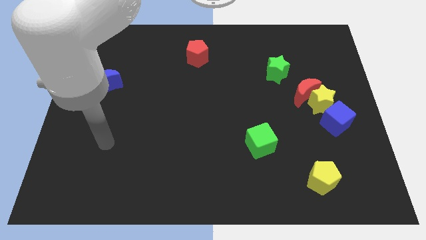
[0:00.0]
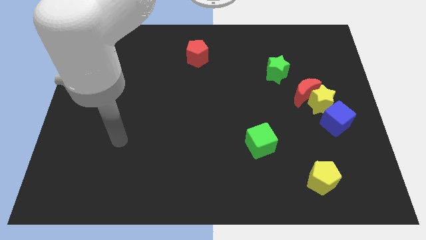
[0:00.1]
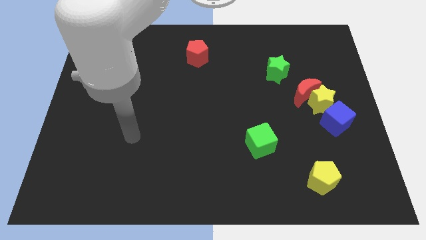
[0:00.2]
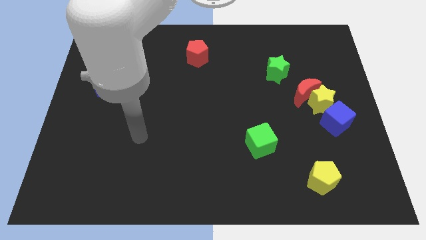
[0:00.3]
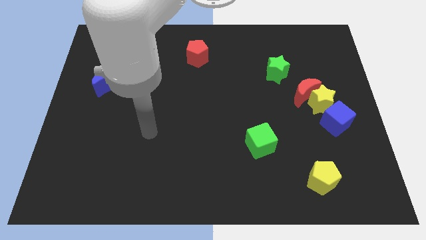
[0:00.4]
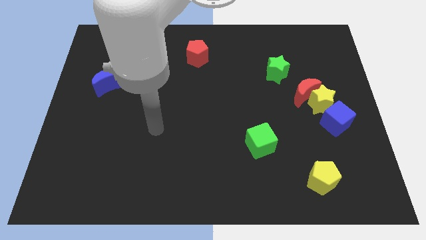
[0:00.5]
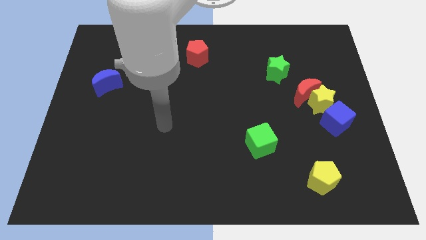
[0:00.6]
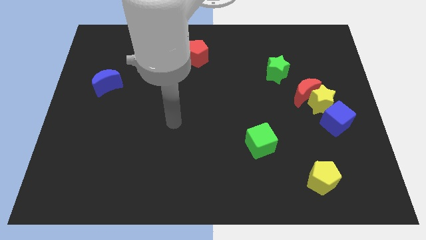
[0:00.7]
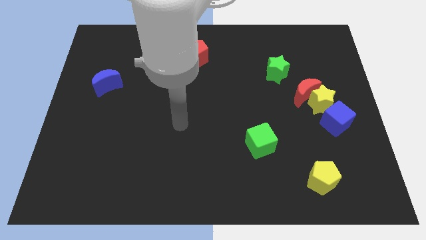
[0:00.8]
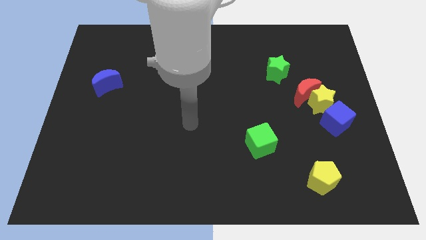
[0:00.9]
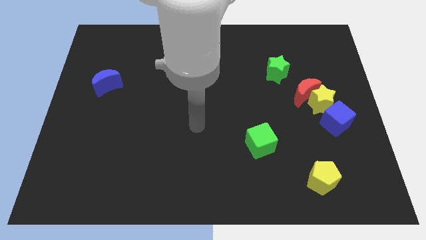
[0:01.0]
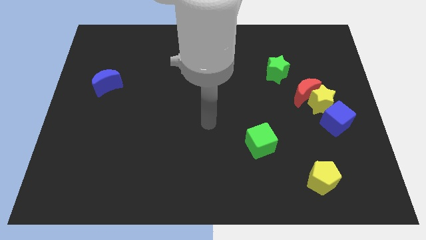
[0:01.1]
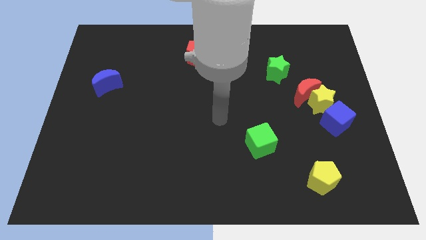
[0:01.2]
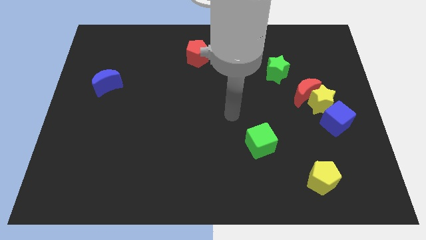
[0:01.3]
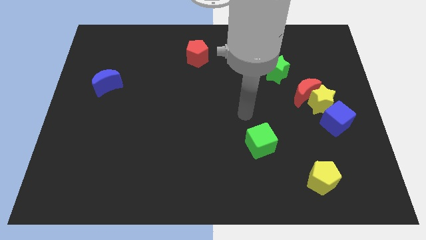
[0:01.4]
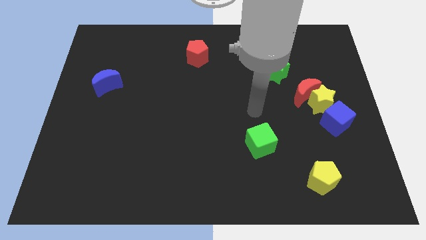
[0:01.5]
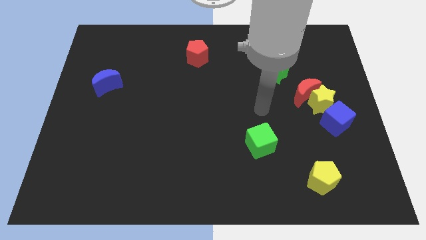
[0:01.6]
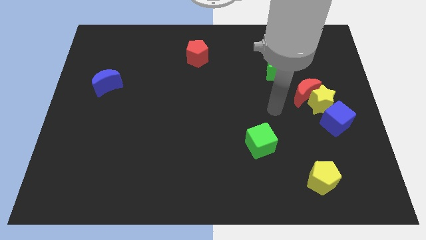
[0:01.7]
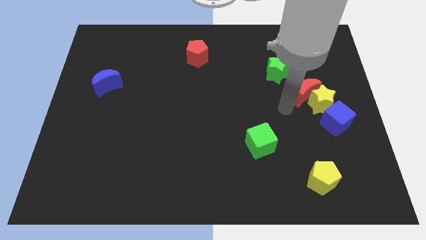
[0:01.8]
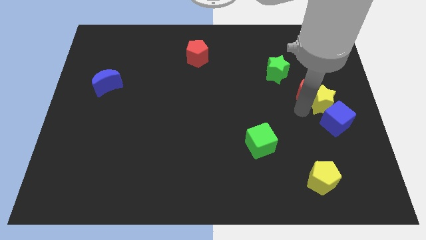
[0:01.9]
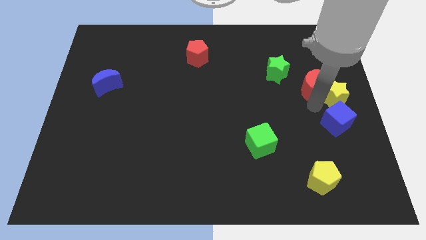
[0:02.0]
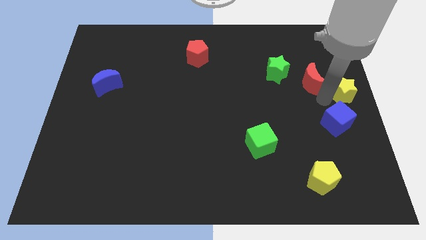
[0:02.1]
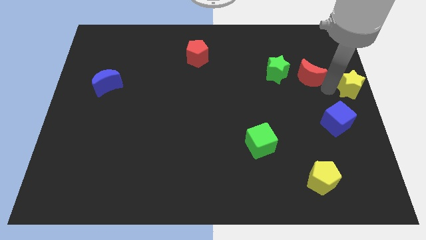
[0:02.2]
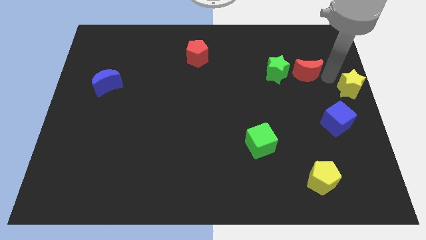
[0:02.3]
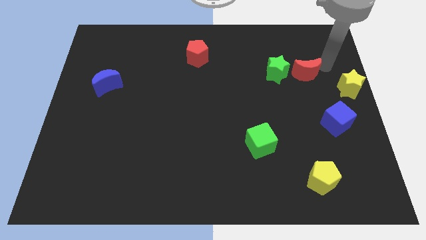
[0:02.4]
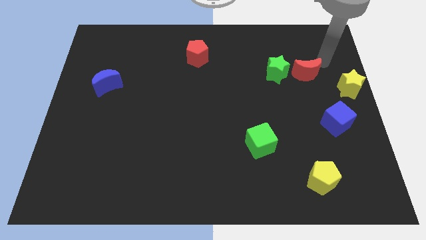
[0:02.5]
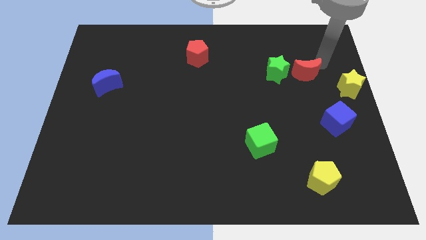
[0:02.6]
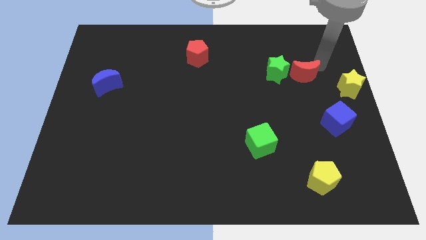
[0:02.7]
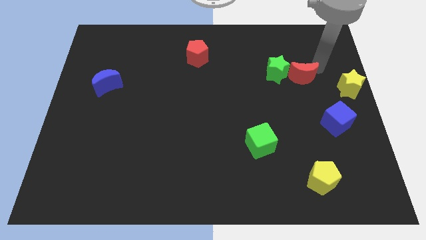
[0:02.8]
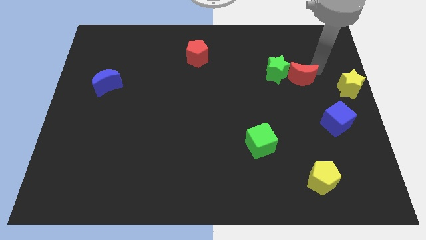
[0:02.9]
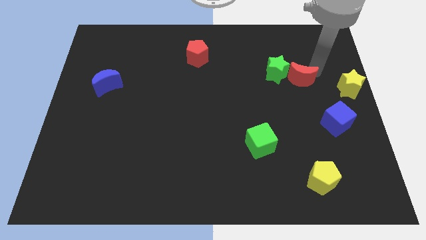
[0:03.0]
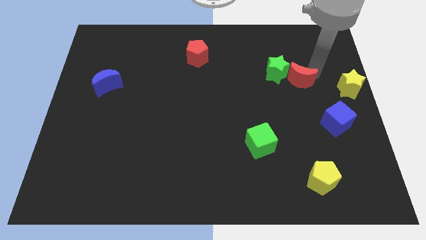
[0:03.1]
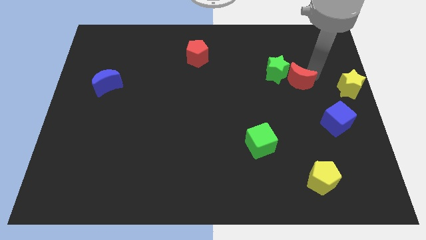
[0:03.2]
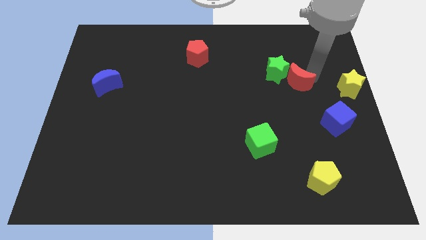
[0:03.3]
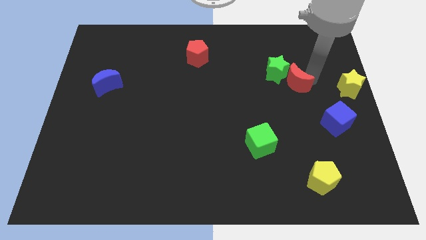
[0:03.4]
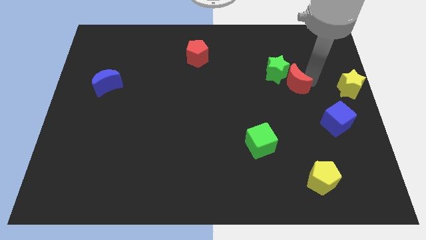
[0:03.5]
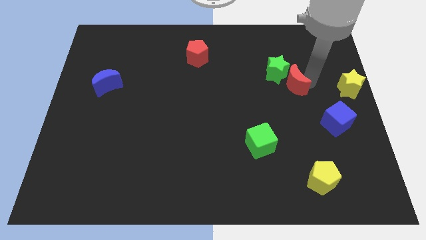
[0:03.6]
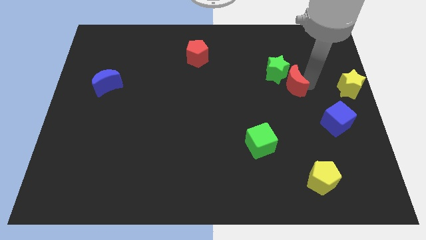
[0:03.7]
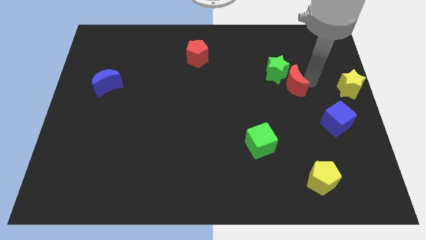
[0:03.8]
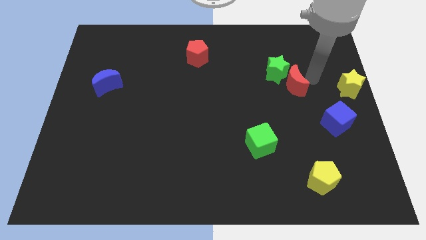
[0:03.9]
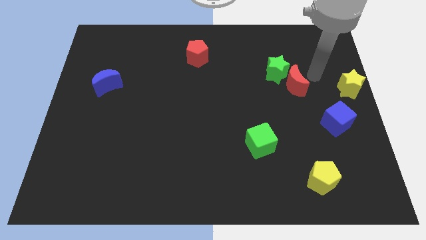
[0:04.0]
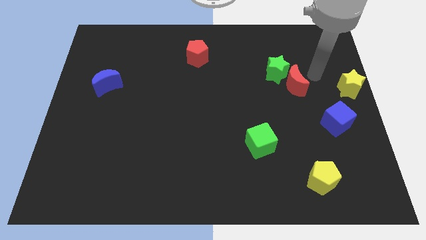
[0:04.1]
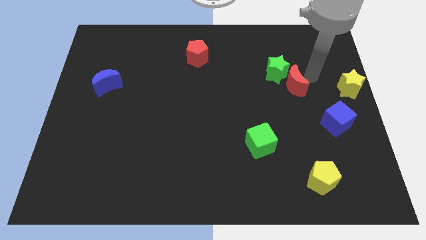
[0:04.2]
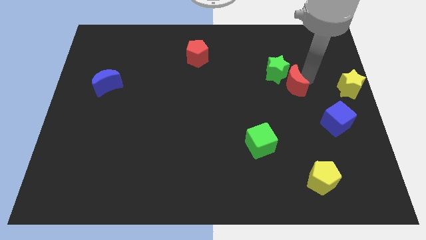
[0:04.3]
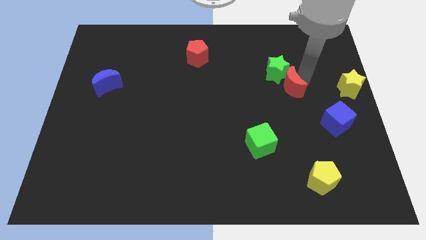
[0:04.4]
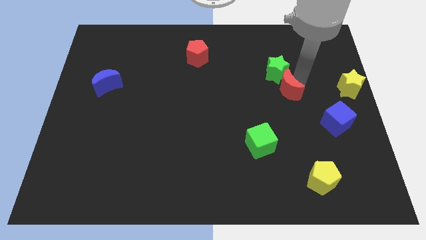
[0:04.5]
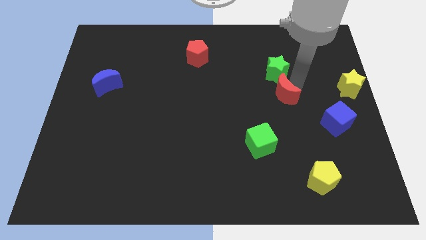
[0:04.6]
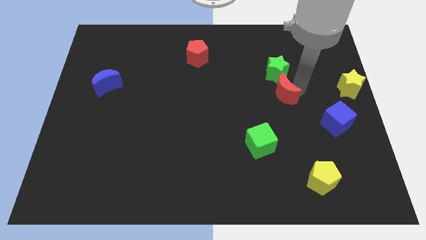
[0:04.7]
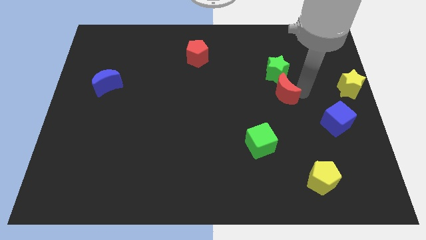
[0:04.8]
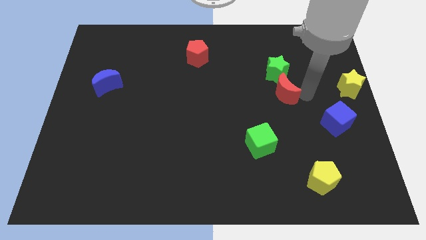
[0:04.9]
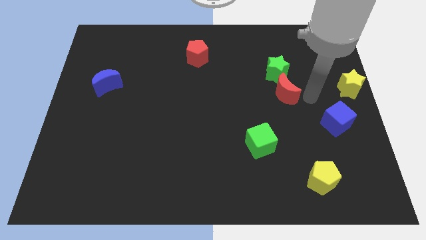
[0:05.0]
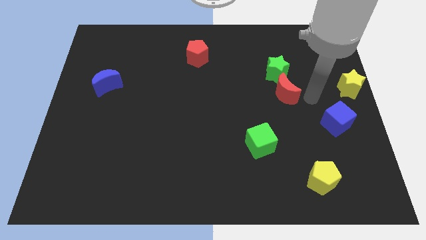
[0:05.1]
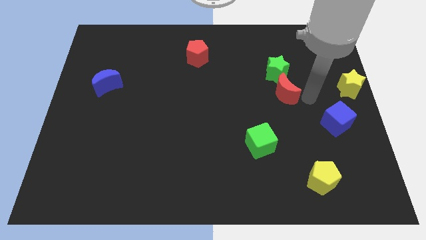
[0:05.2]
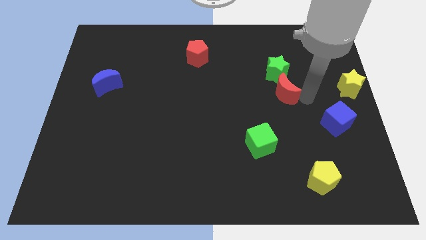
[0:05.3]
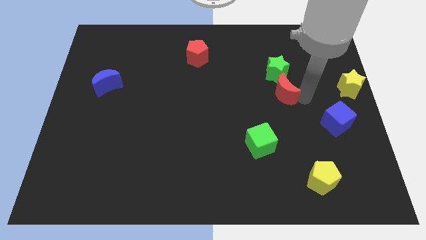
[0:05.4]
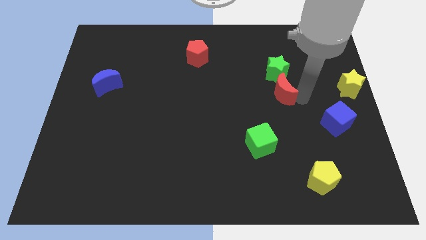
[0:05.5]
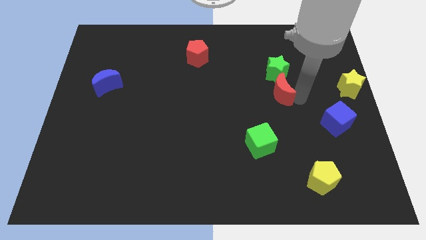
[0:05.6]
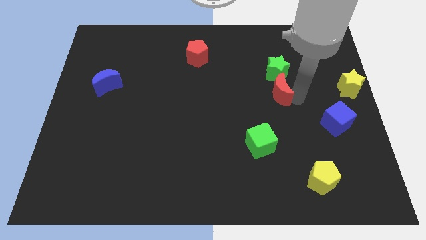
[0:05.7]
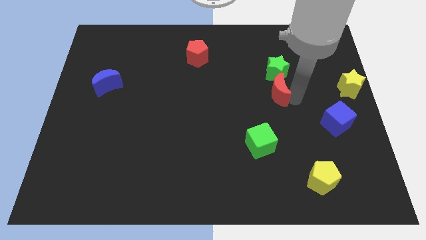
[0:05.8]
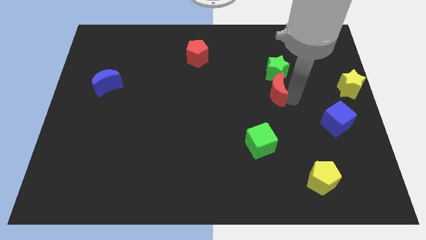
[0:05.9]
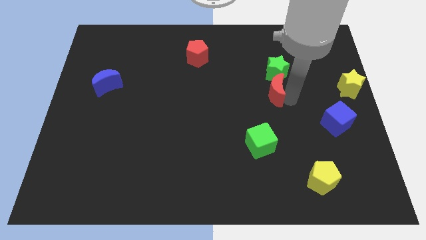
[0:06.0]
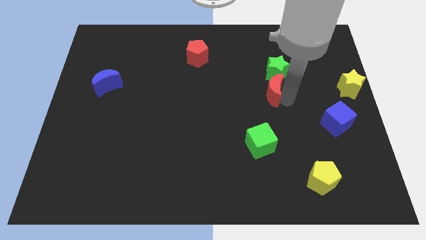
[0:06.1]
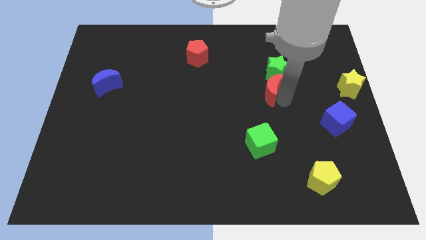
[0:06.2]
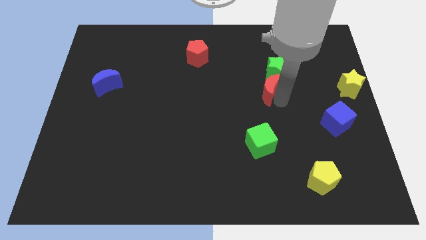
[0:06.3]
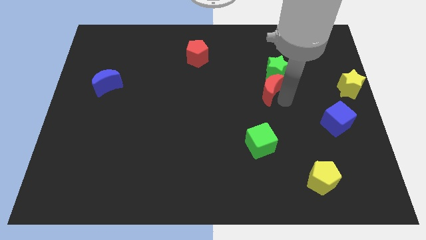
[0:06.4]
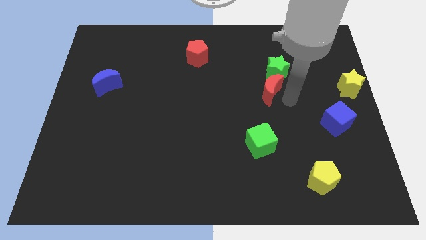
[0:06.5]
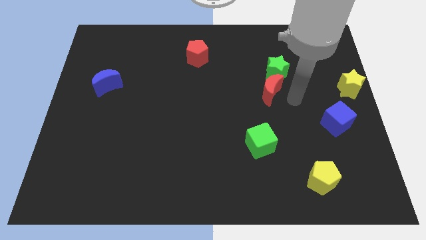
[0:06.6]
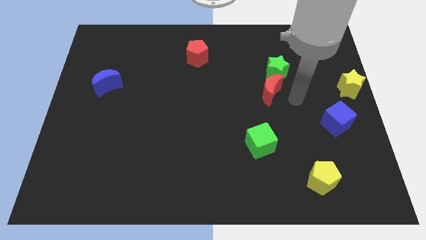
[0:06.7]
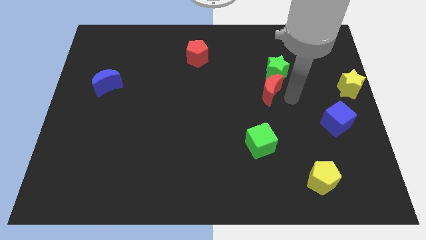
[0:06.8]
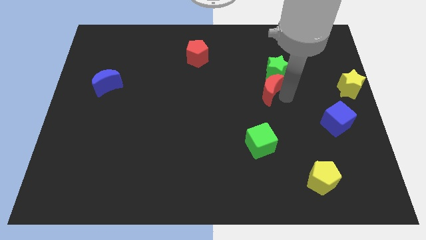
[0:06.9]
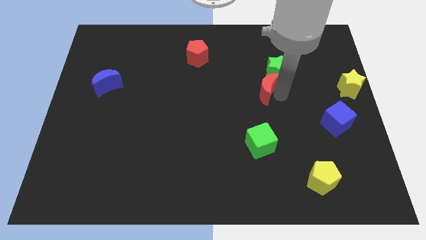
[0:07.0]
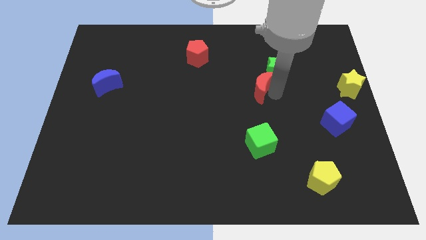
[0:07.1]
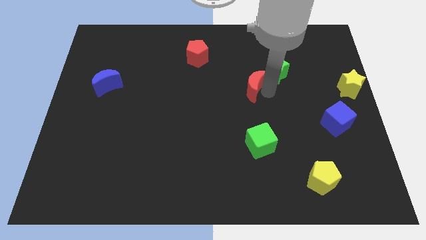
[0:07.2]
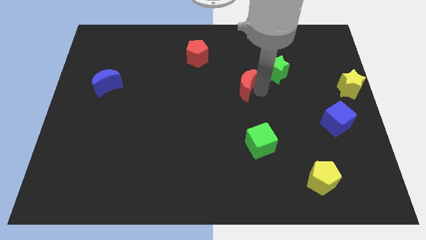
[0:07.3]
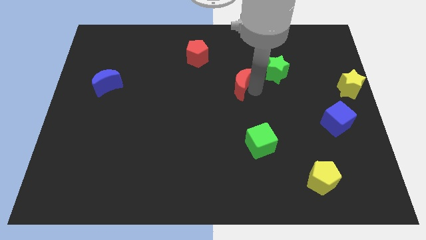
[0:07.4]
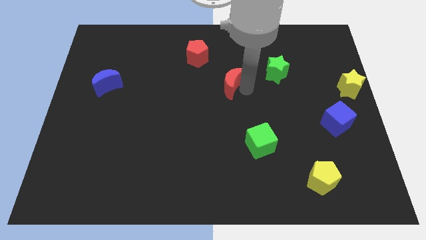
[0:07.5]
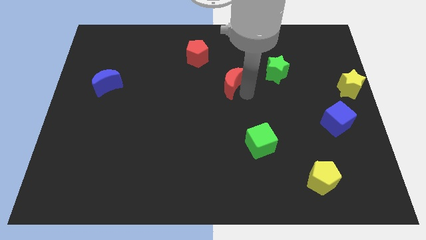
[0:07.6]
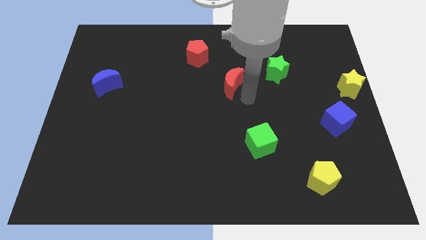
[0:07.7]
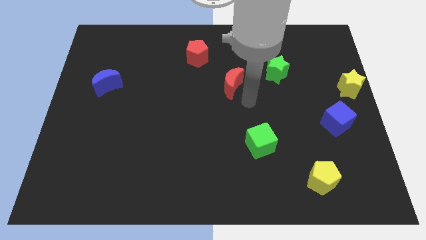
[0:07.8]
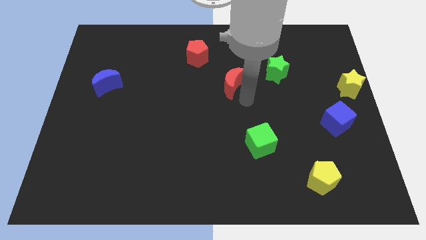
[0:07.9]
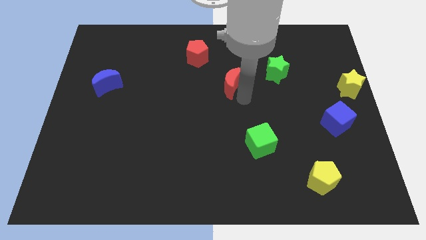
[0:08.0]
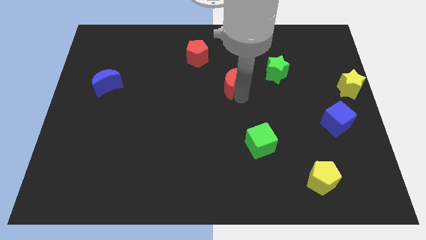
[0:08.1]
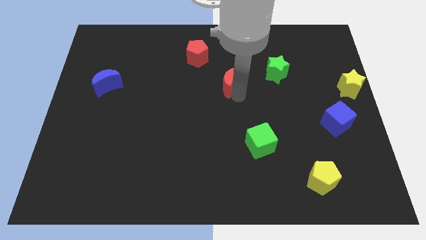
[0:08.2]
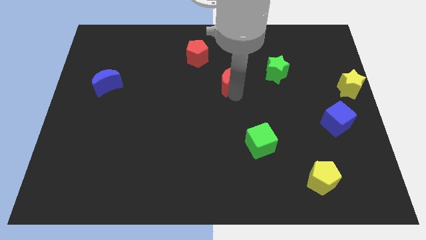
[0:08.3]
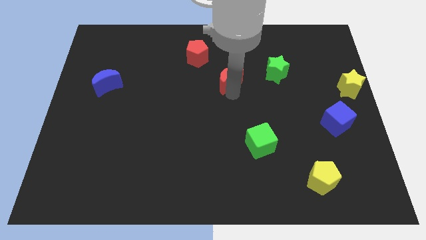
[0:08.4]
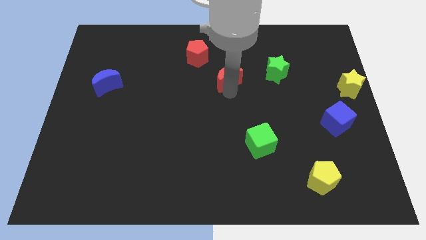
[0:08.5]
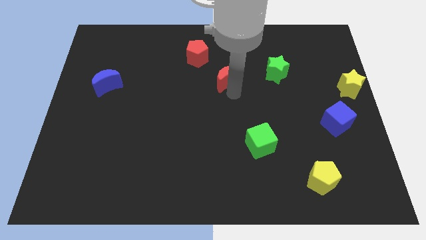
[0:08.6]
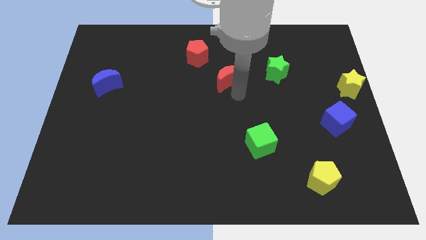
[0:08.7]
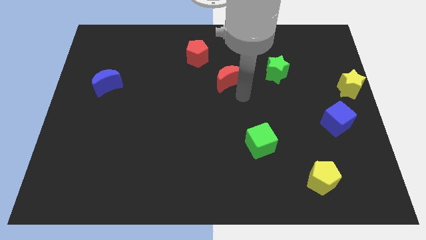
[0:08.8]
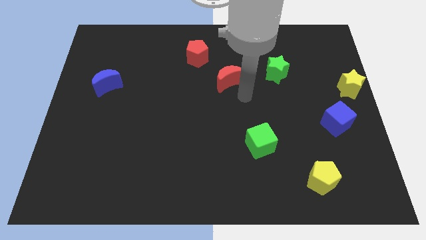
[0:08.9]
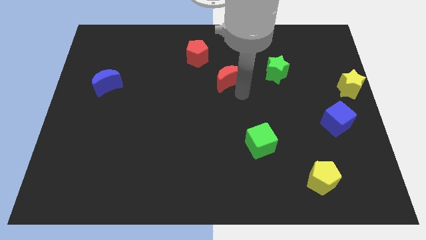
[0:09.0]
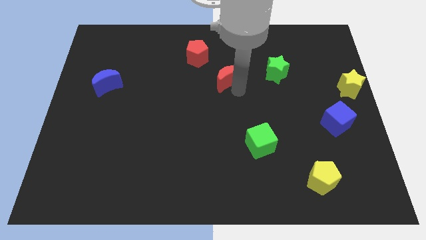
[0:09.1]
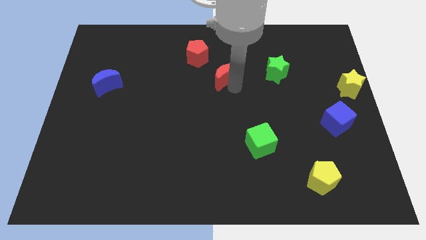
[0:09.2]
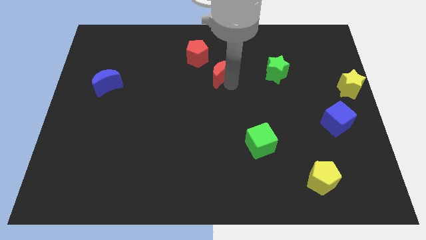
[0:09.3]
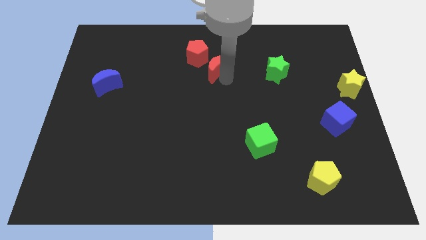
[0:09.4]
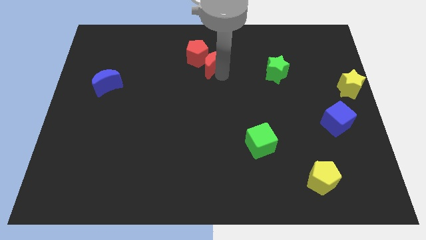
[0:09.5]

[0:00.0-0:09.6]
put the red moon to the red pentagon
